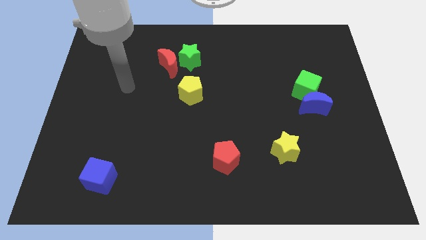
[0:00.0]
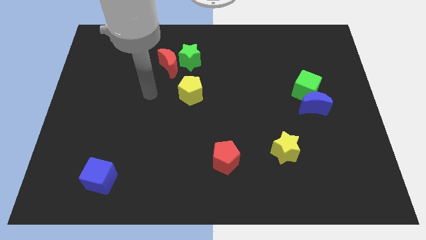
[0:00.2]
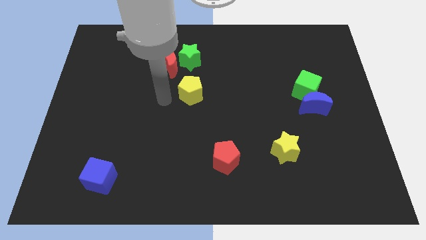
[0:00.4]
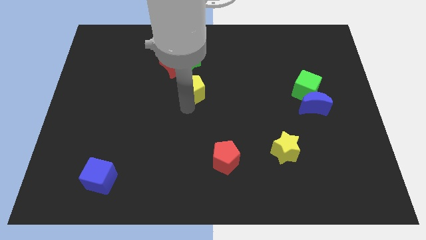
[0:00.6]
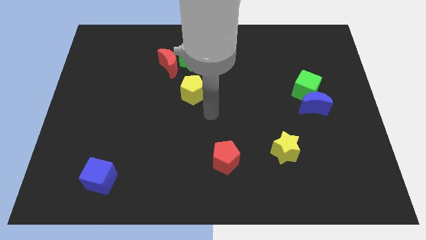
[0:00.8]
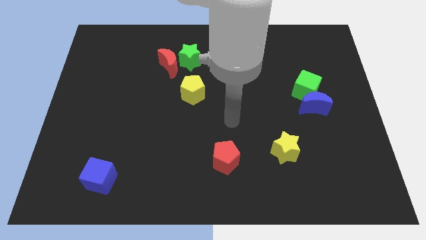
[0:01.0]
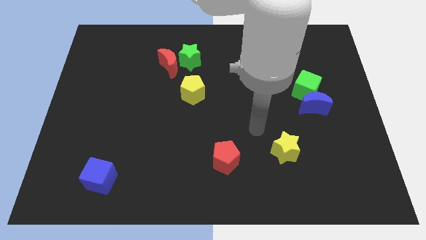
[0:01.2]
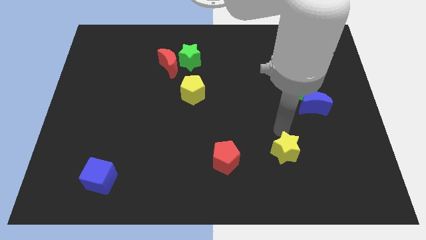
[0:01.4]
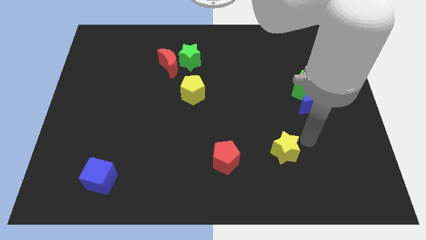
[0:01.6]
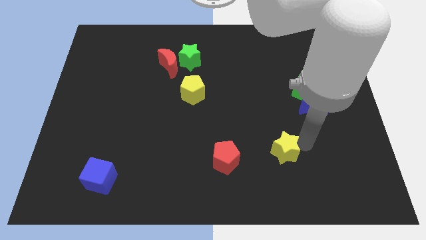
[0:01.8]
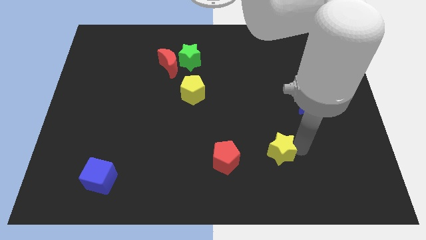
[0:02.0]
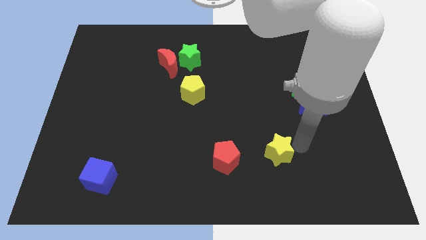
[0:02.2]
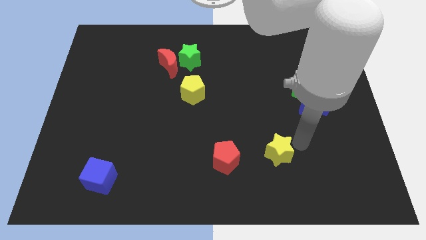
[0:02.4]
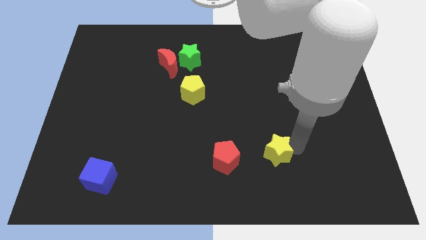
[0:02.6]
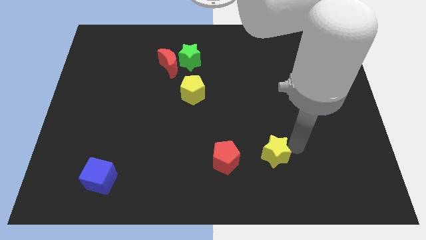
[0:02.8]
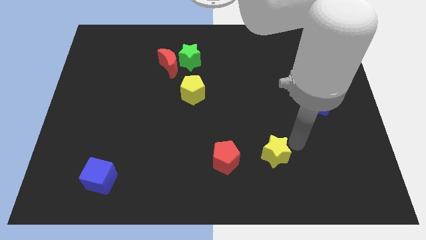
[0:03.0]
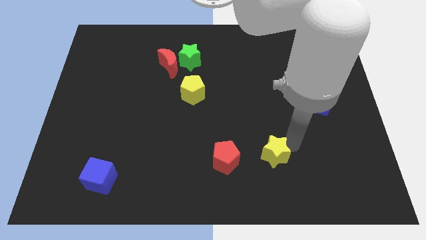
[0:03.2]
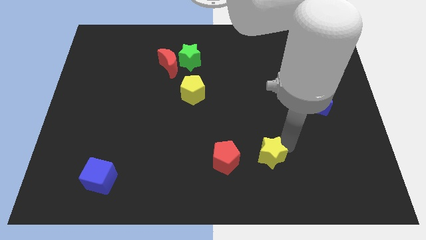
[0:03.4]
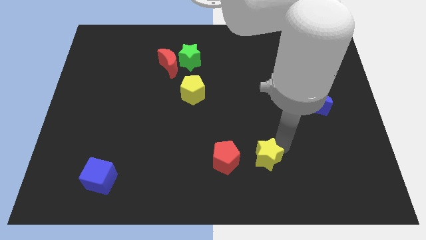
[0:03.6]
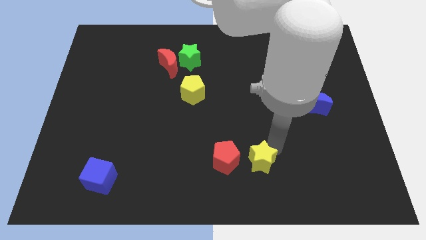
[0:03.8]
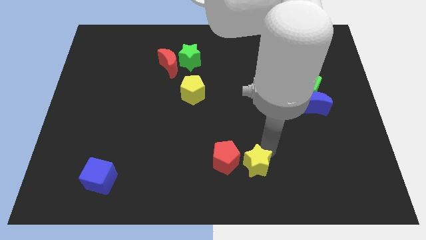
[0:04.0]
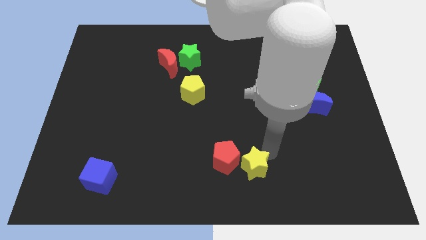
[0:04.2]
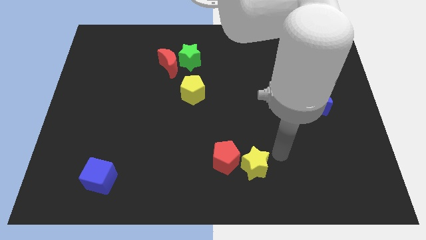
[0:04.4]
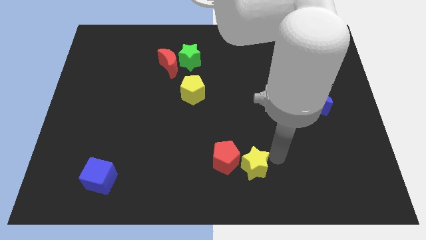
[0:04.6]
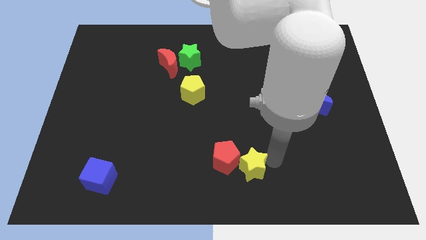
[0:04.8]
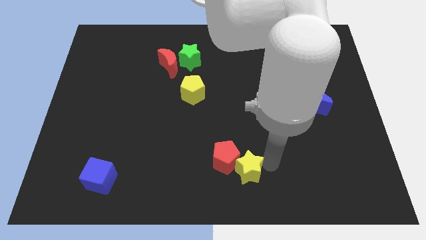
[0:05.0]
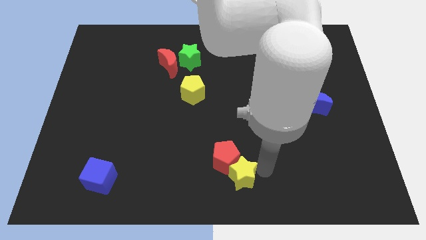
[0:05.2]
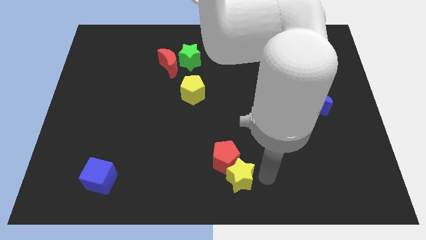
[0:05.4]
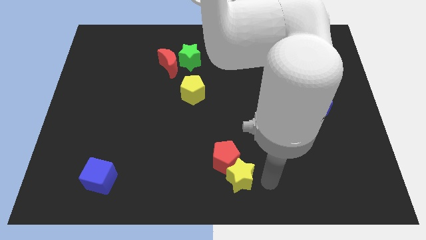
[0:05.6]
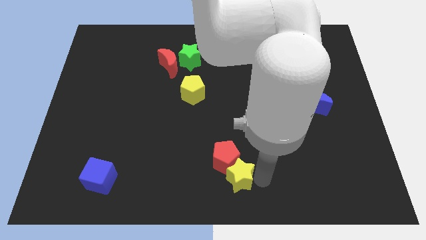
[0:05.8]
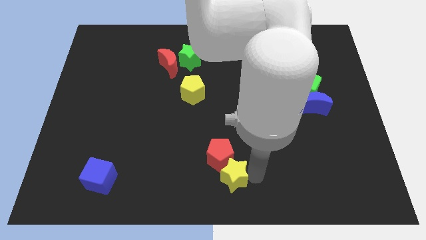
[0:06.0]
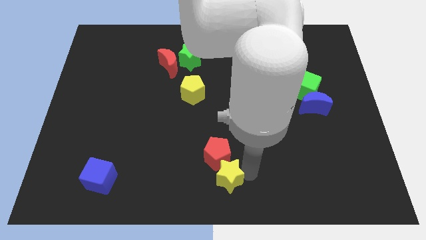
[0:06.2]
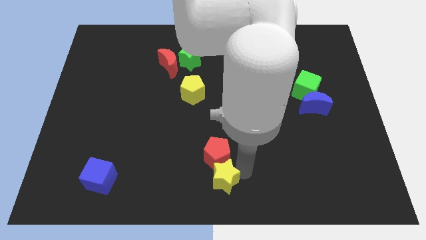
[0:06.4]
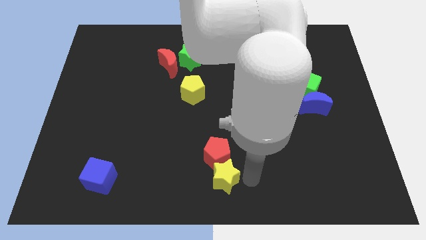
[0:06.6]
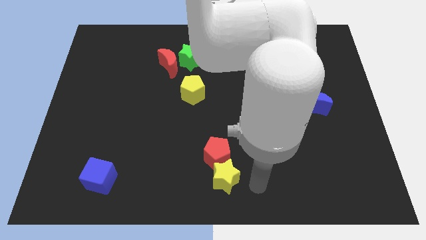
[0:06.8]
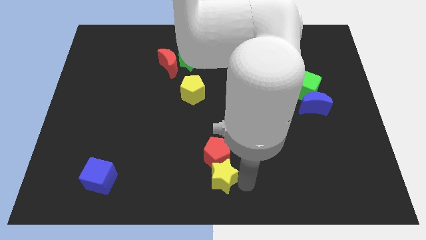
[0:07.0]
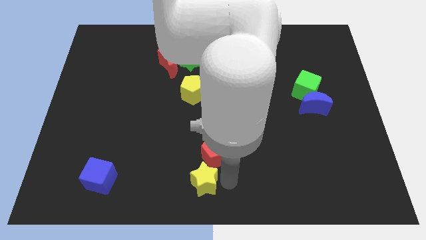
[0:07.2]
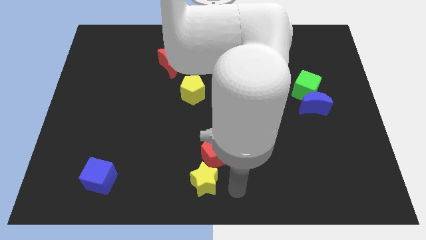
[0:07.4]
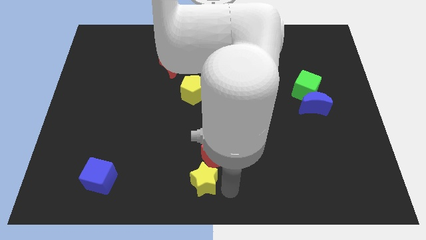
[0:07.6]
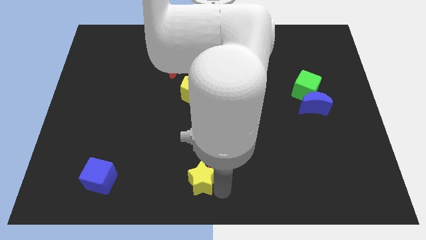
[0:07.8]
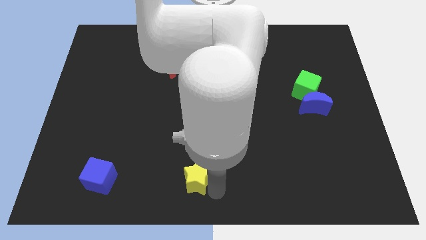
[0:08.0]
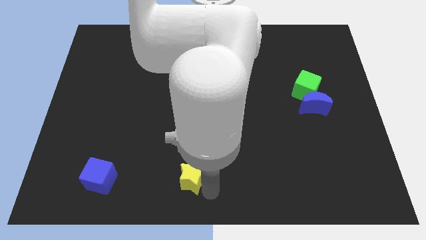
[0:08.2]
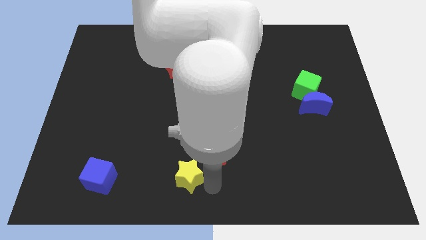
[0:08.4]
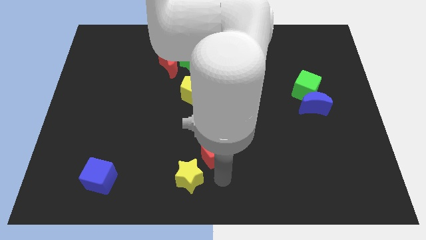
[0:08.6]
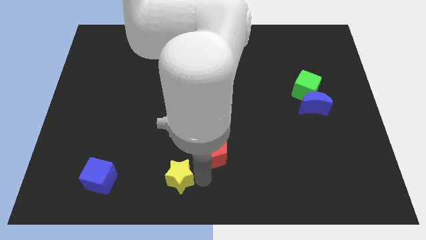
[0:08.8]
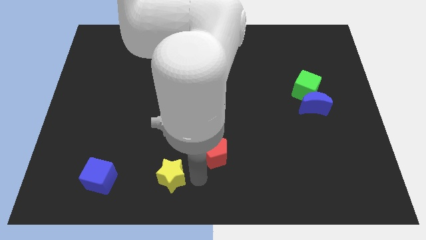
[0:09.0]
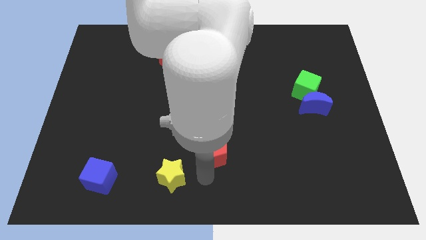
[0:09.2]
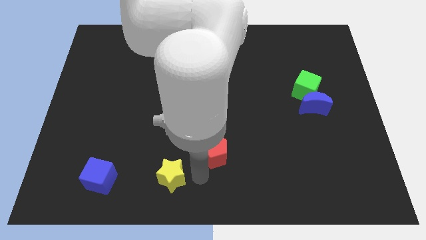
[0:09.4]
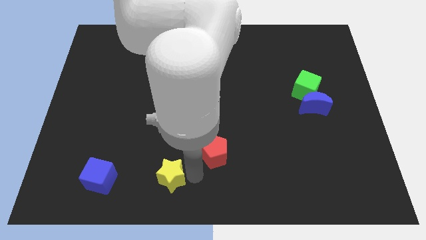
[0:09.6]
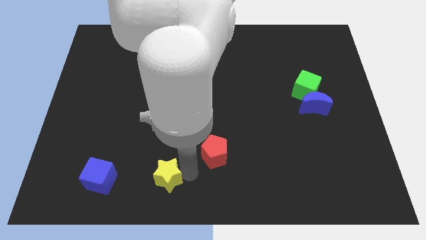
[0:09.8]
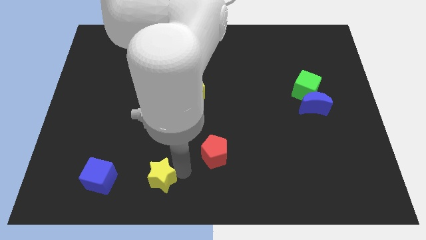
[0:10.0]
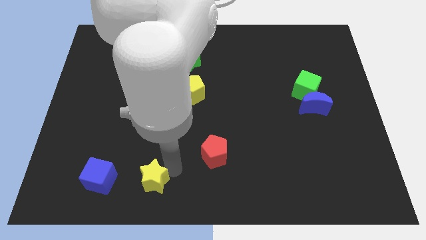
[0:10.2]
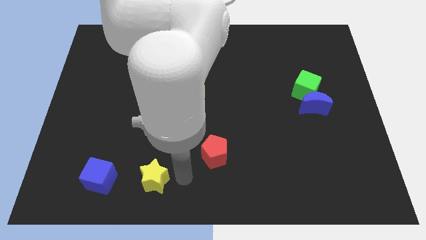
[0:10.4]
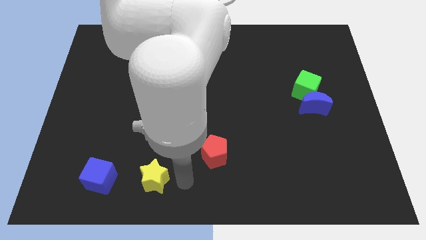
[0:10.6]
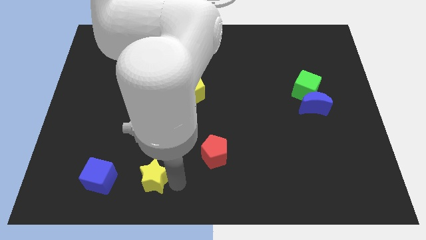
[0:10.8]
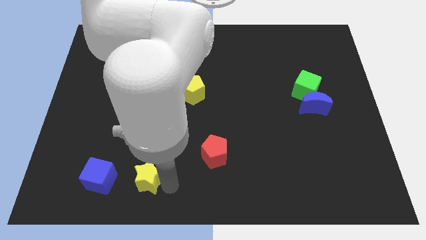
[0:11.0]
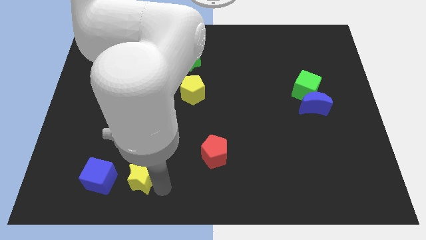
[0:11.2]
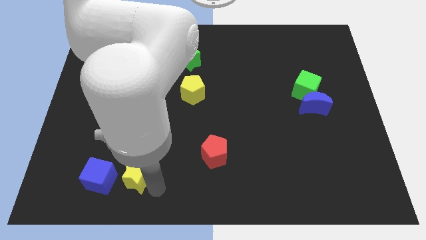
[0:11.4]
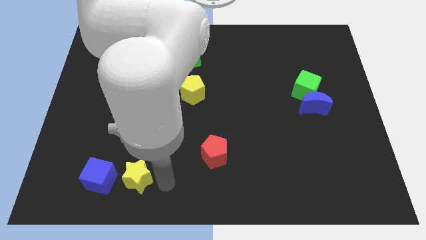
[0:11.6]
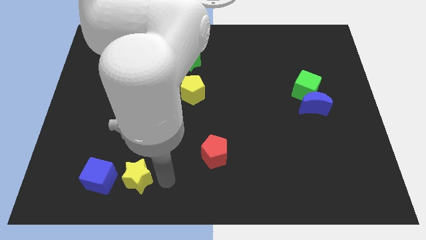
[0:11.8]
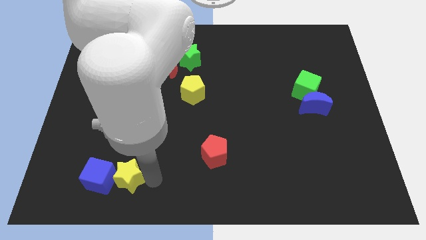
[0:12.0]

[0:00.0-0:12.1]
slide the yellow star towards the blue cube

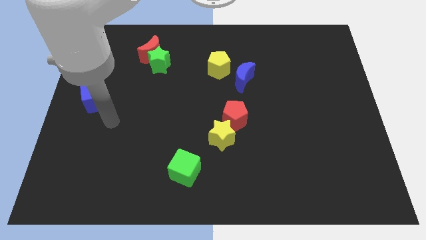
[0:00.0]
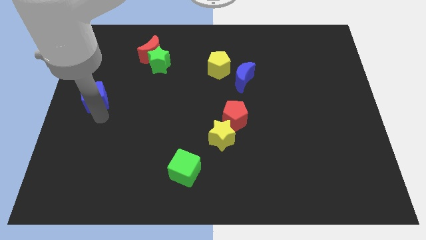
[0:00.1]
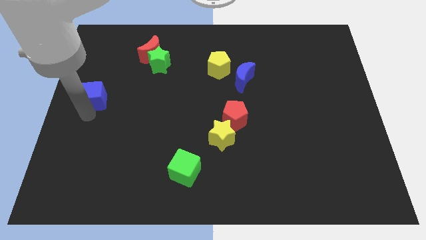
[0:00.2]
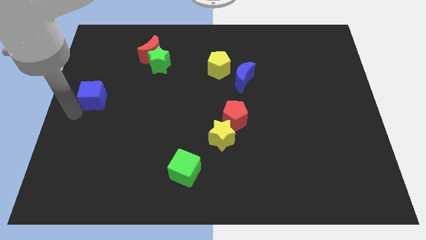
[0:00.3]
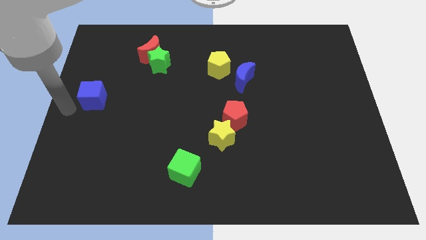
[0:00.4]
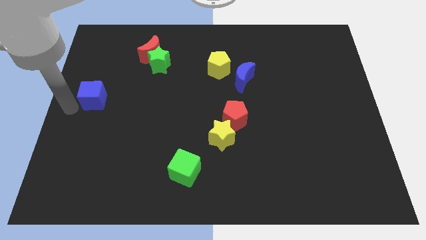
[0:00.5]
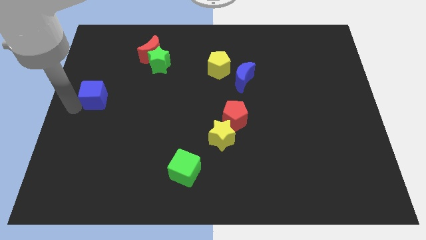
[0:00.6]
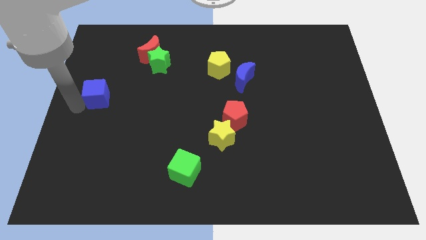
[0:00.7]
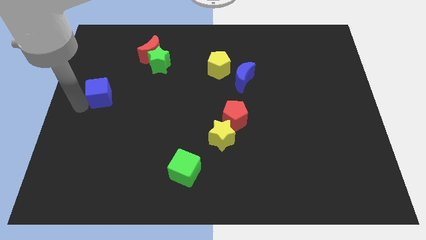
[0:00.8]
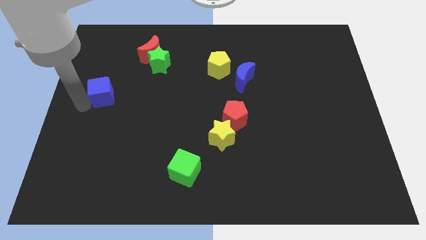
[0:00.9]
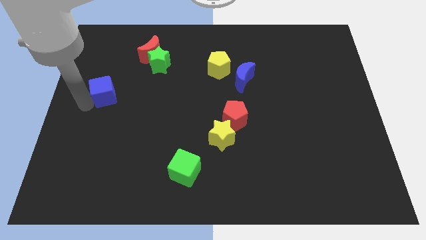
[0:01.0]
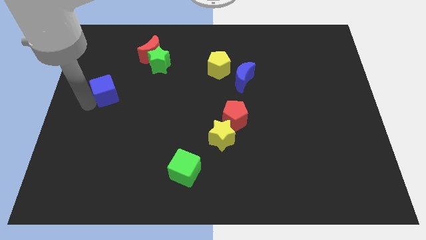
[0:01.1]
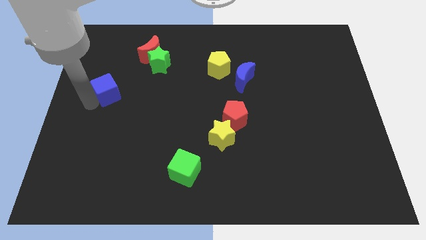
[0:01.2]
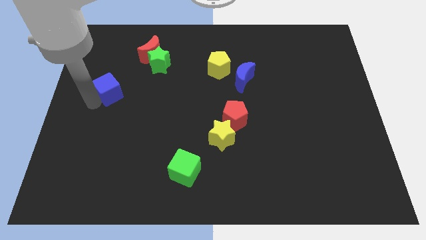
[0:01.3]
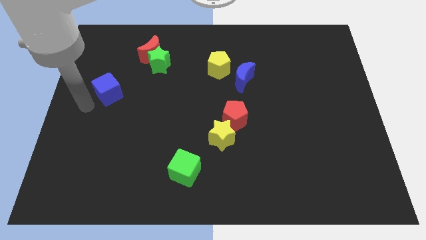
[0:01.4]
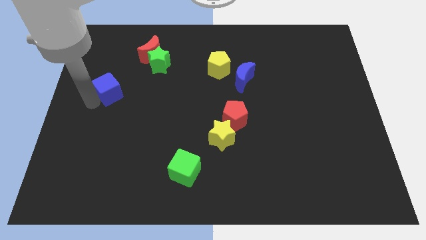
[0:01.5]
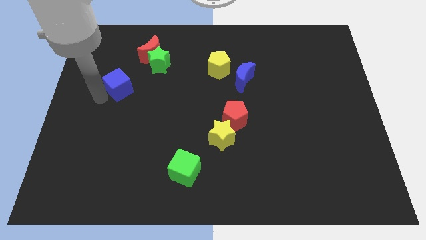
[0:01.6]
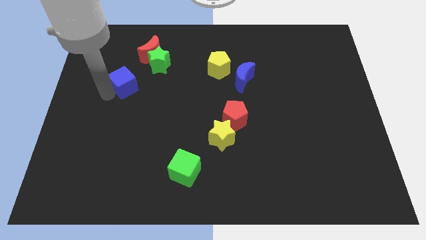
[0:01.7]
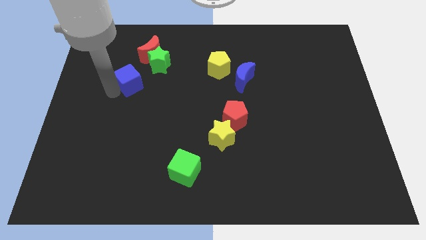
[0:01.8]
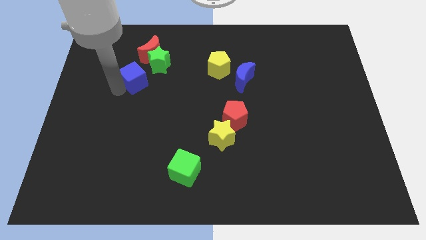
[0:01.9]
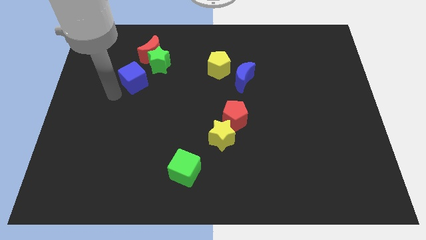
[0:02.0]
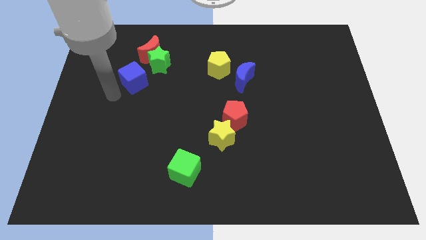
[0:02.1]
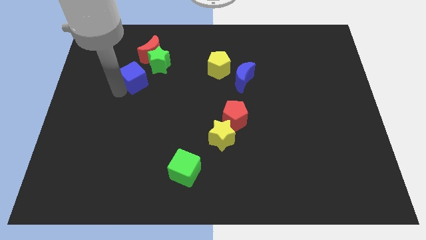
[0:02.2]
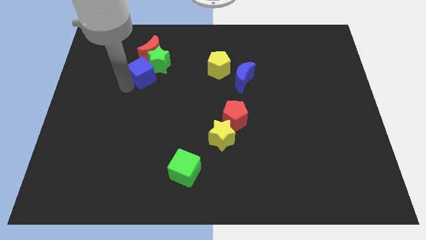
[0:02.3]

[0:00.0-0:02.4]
slide the blue cube close to the green star
